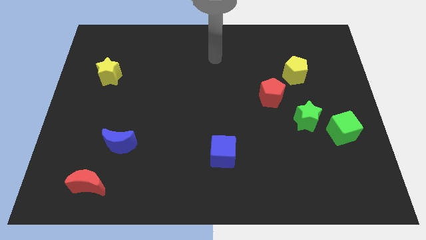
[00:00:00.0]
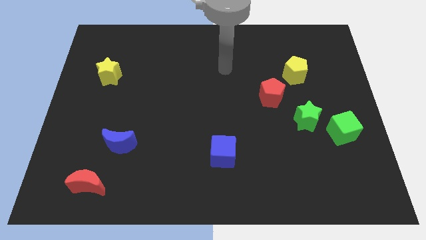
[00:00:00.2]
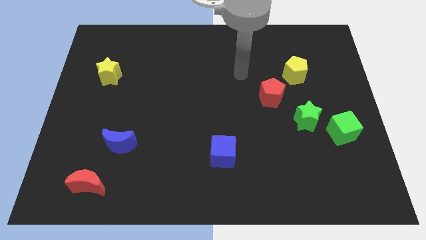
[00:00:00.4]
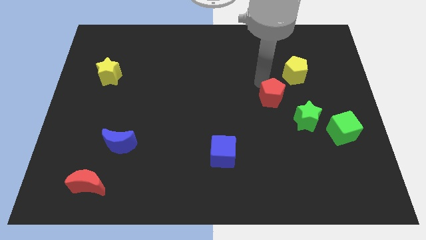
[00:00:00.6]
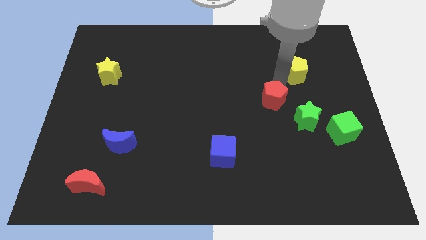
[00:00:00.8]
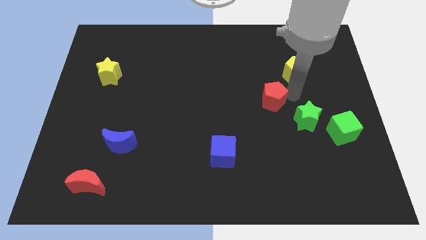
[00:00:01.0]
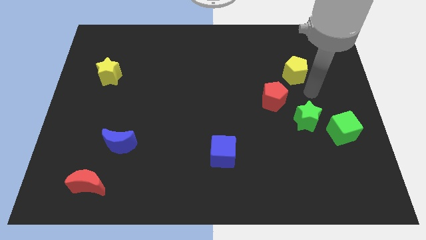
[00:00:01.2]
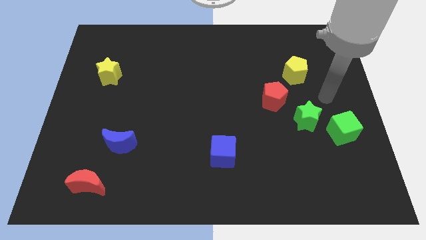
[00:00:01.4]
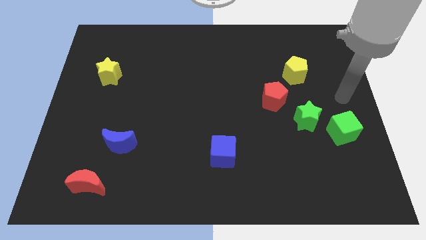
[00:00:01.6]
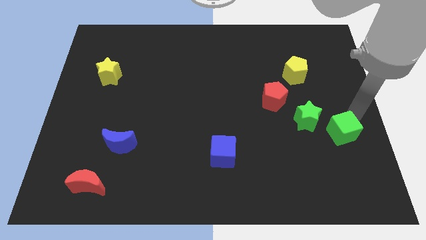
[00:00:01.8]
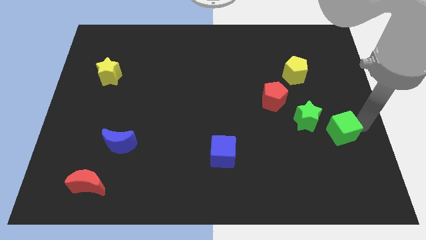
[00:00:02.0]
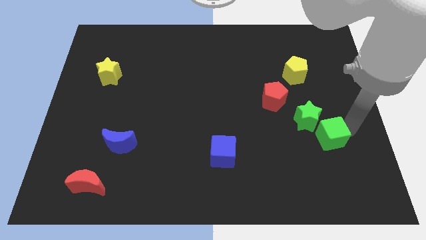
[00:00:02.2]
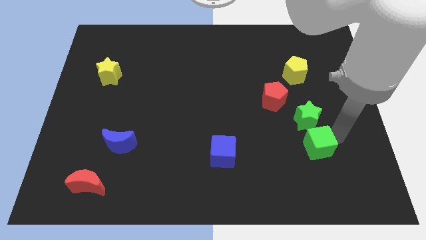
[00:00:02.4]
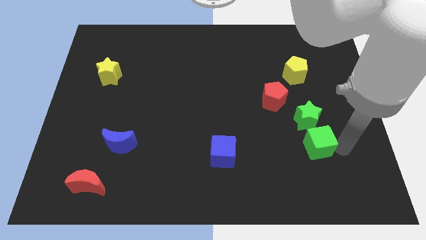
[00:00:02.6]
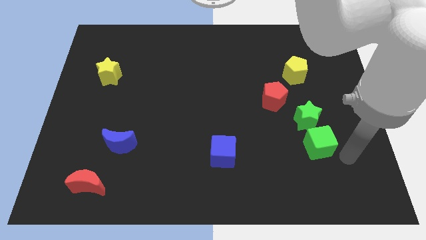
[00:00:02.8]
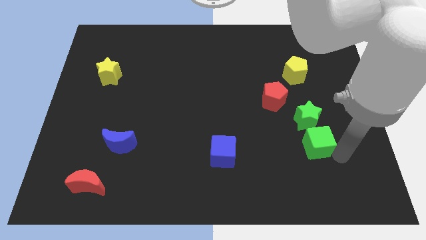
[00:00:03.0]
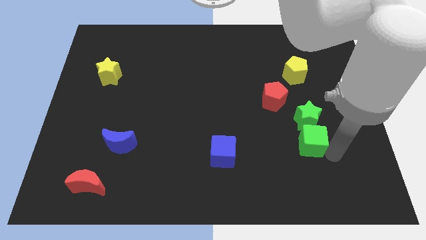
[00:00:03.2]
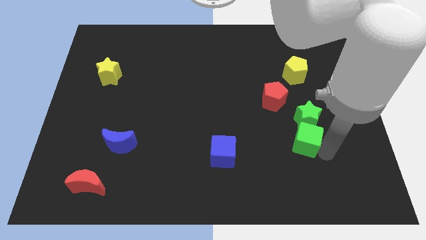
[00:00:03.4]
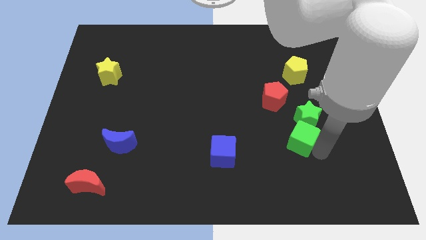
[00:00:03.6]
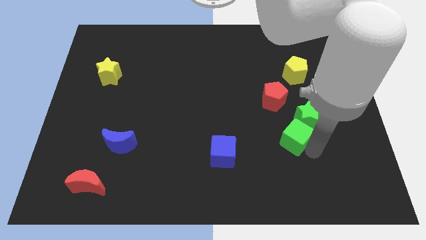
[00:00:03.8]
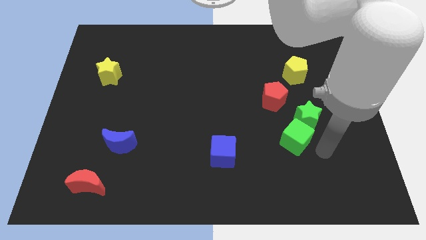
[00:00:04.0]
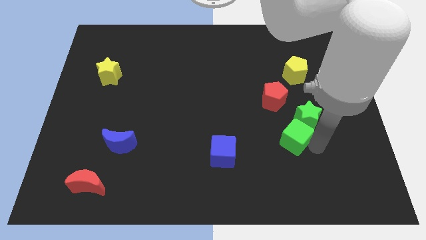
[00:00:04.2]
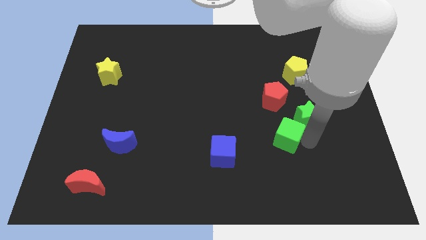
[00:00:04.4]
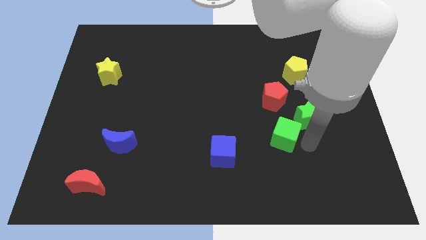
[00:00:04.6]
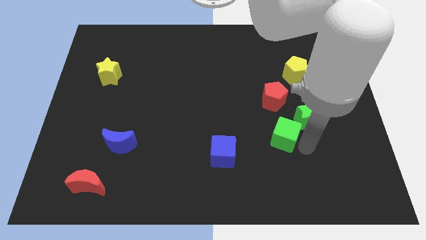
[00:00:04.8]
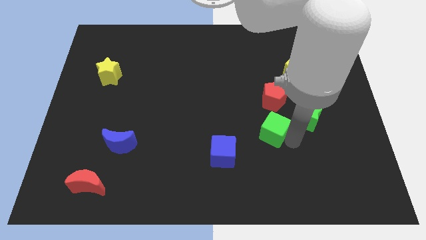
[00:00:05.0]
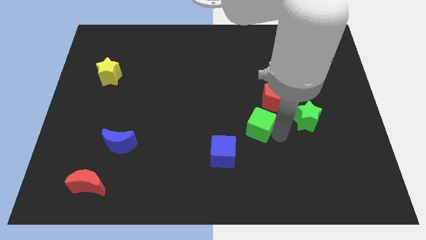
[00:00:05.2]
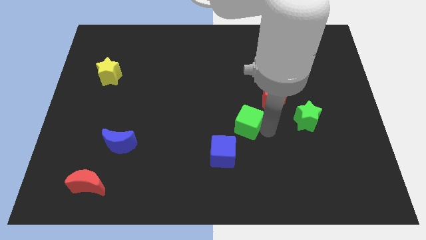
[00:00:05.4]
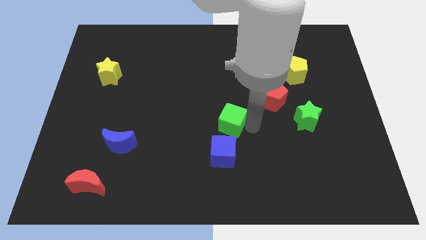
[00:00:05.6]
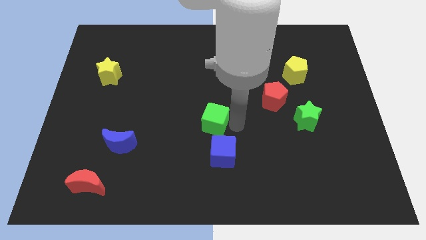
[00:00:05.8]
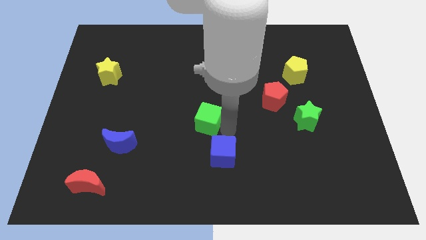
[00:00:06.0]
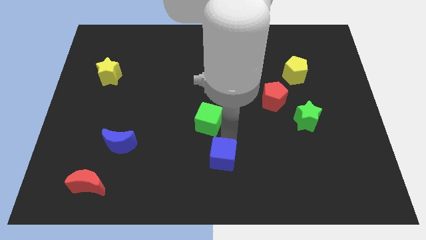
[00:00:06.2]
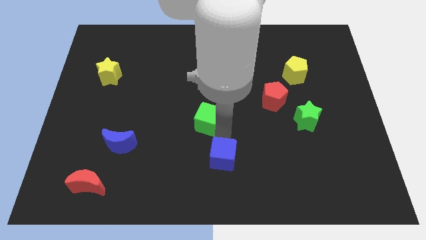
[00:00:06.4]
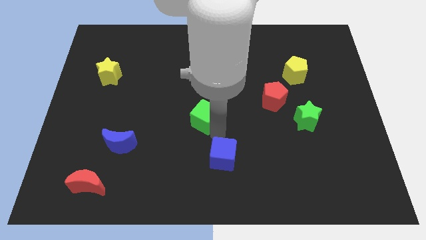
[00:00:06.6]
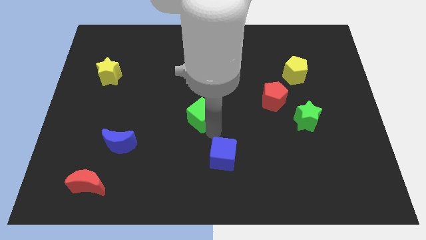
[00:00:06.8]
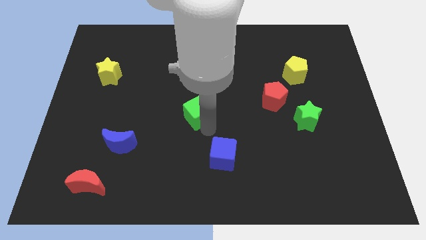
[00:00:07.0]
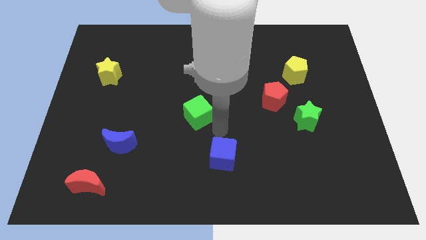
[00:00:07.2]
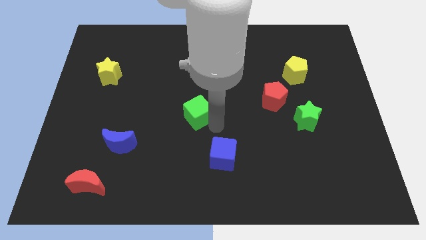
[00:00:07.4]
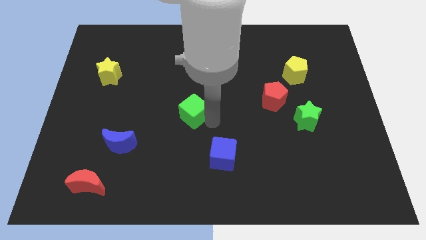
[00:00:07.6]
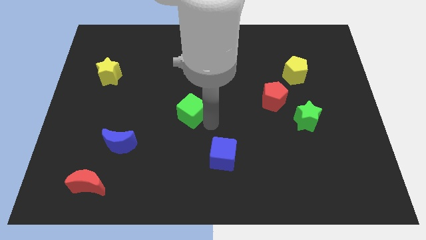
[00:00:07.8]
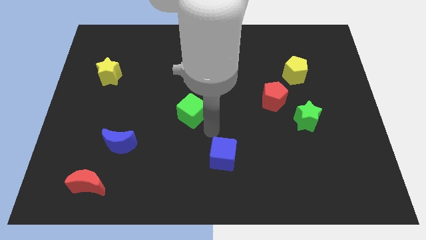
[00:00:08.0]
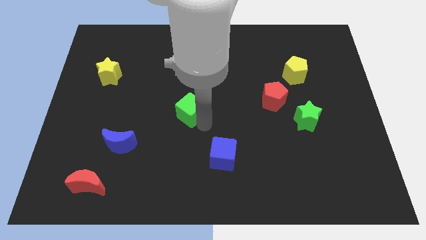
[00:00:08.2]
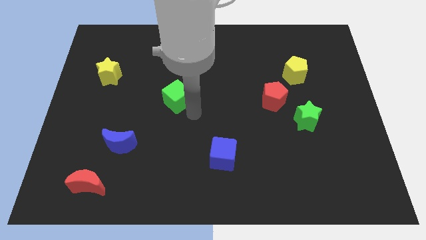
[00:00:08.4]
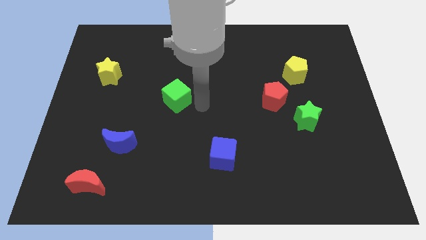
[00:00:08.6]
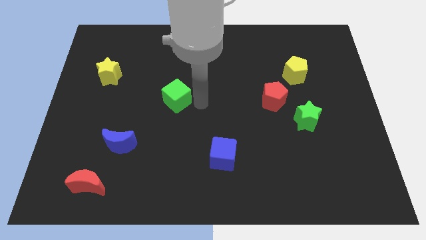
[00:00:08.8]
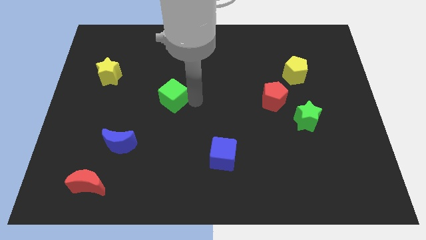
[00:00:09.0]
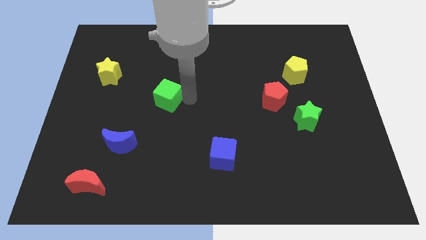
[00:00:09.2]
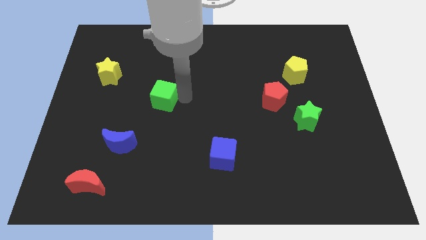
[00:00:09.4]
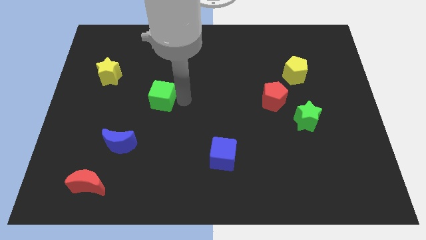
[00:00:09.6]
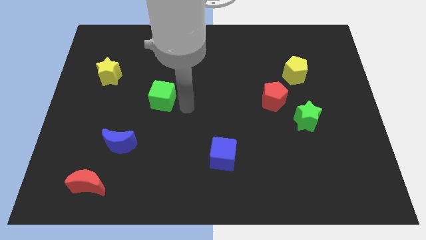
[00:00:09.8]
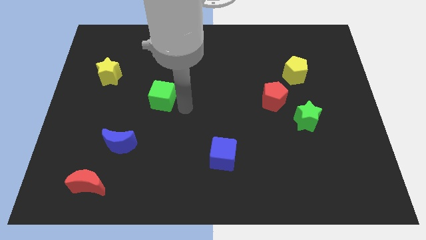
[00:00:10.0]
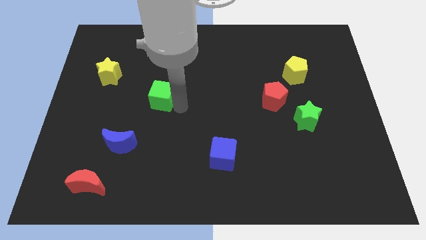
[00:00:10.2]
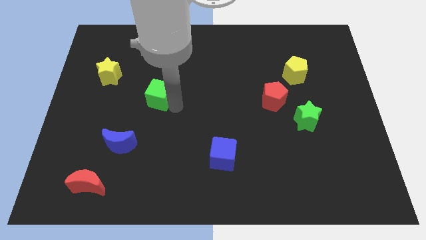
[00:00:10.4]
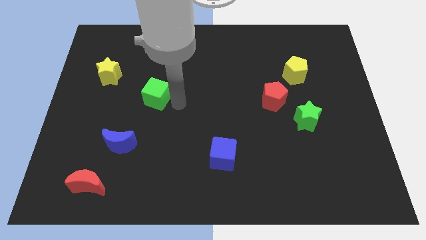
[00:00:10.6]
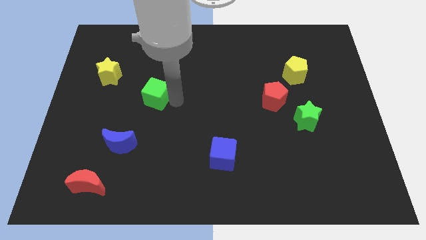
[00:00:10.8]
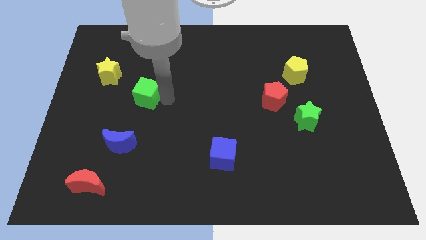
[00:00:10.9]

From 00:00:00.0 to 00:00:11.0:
push the green cube to the bottom right of the yellow star

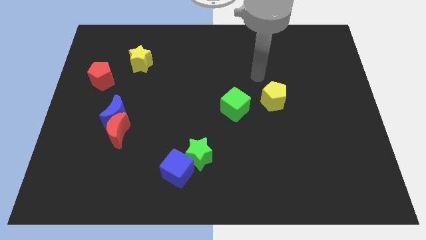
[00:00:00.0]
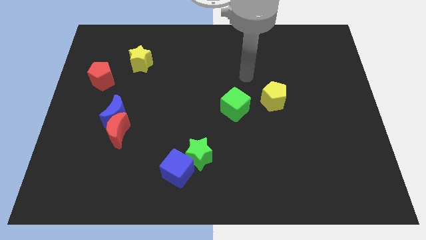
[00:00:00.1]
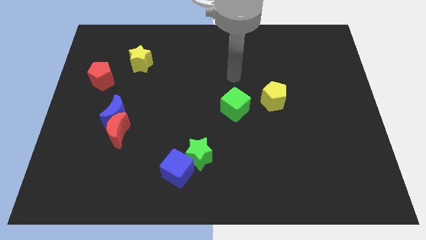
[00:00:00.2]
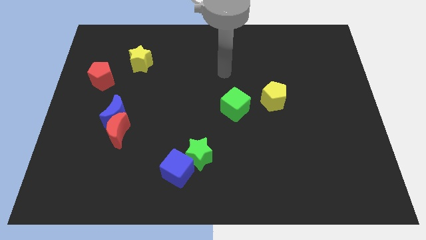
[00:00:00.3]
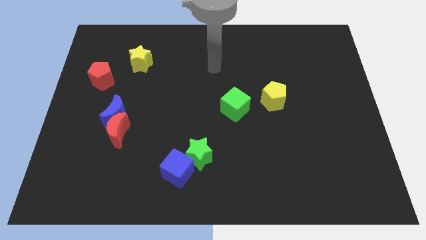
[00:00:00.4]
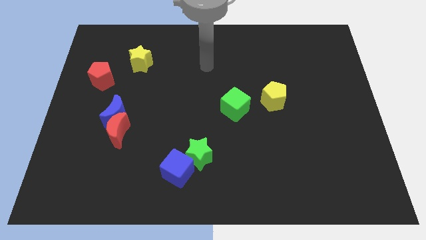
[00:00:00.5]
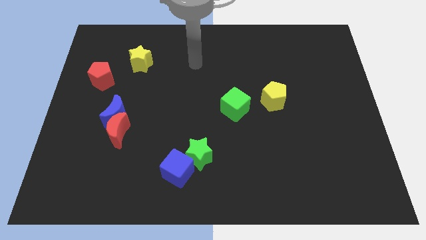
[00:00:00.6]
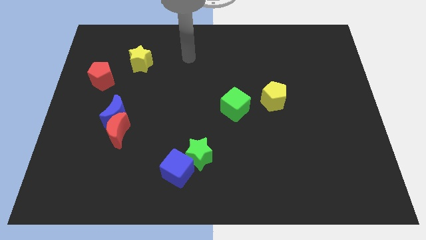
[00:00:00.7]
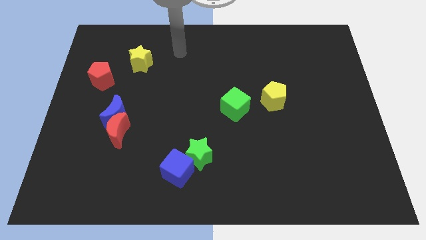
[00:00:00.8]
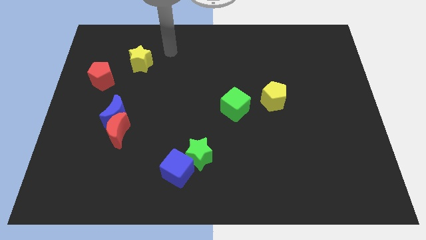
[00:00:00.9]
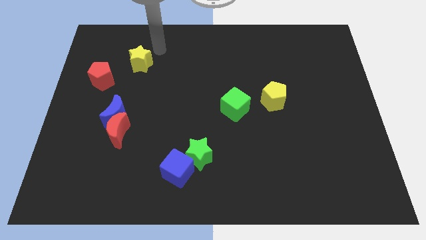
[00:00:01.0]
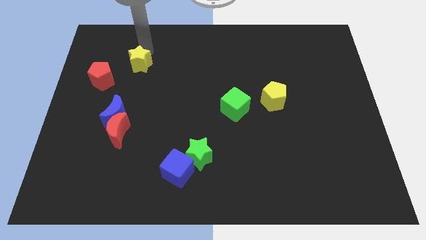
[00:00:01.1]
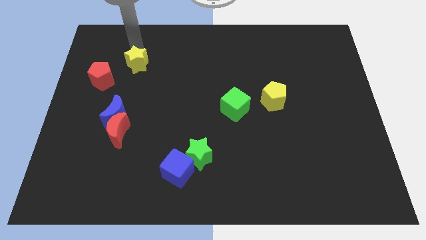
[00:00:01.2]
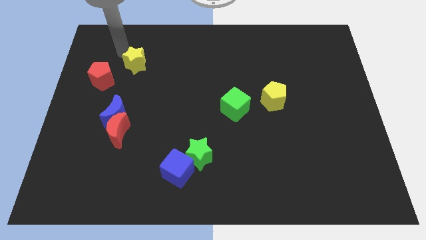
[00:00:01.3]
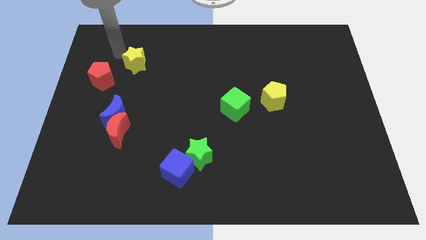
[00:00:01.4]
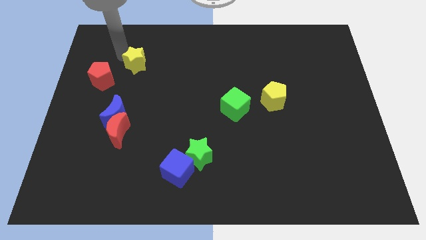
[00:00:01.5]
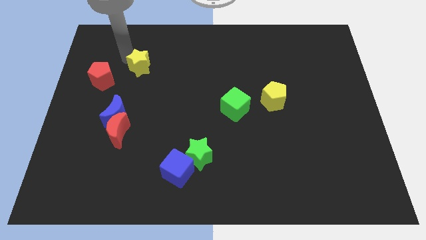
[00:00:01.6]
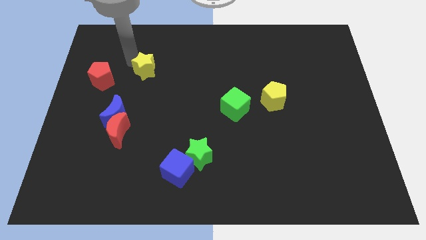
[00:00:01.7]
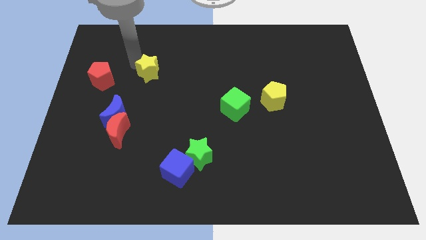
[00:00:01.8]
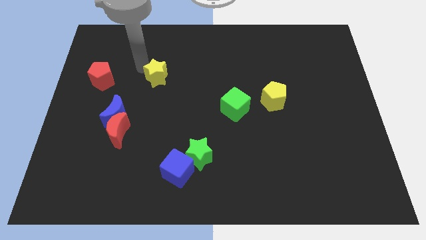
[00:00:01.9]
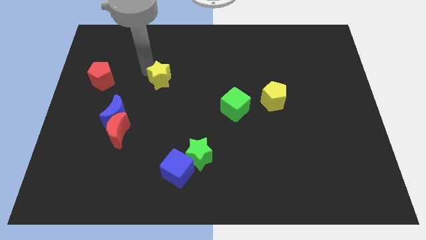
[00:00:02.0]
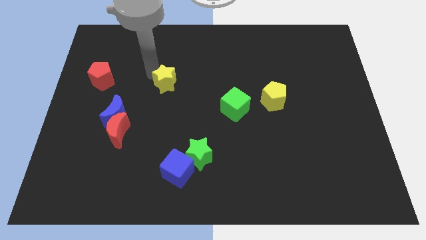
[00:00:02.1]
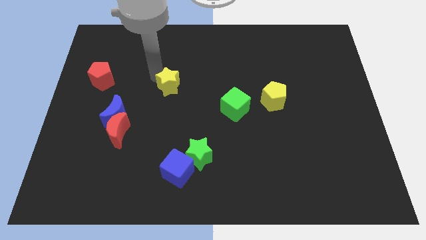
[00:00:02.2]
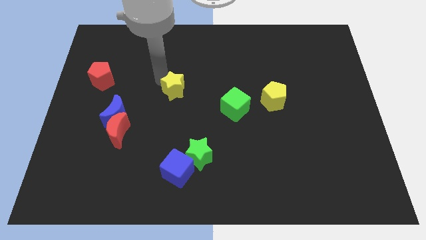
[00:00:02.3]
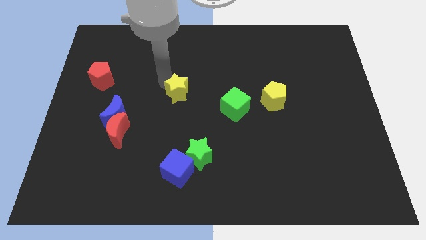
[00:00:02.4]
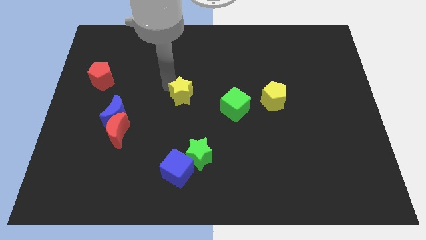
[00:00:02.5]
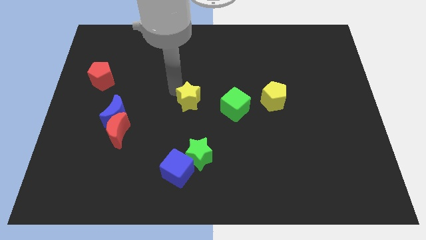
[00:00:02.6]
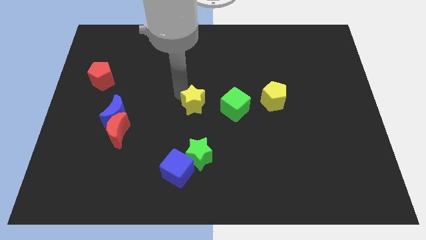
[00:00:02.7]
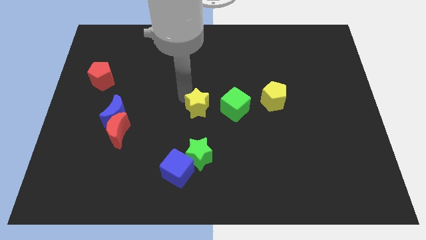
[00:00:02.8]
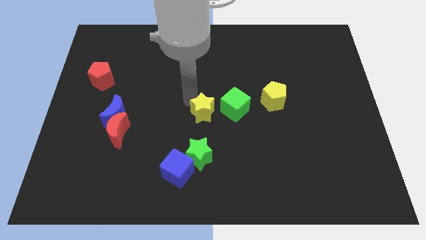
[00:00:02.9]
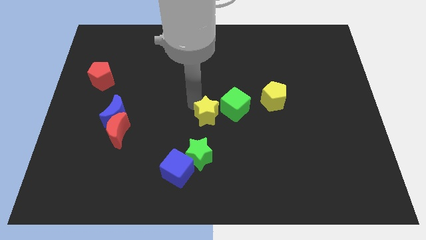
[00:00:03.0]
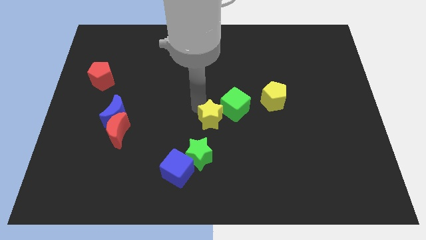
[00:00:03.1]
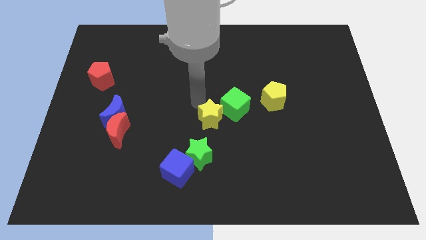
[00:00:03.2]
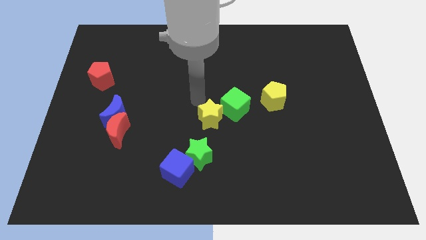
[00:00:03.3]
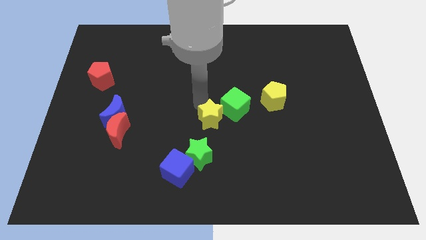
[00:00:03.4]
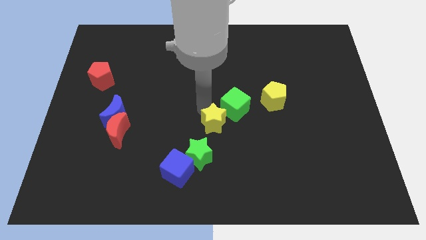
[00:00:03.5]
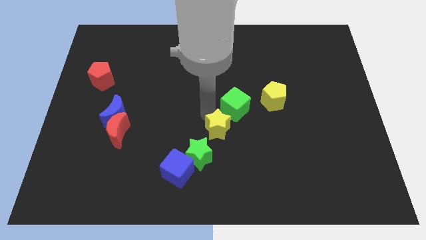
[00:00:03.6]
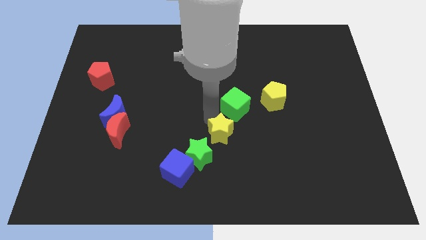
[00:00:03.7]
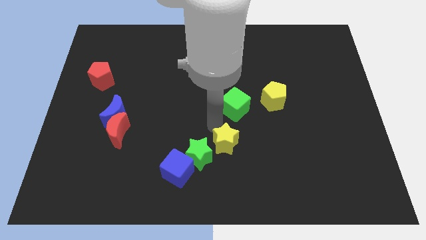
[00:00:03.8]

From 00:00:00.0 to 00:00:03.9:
push the yellow star right of the green star
